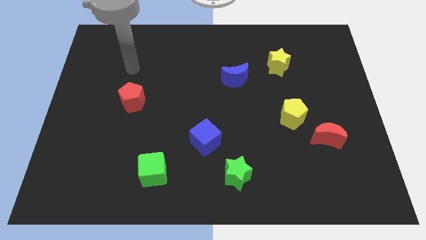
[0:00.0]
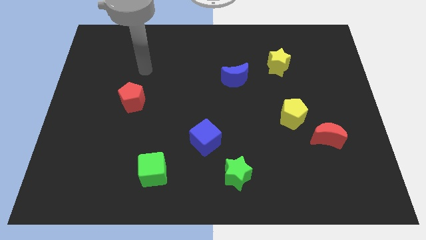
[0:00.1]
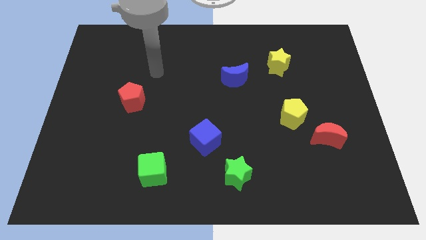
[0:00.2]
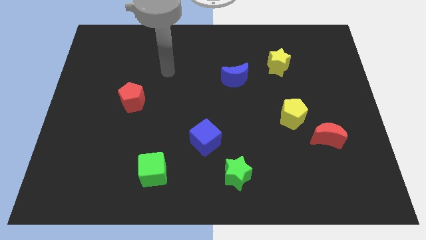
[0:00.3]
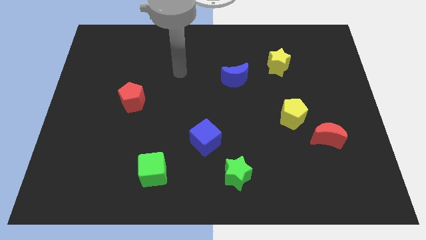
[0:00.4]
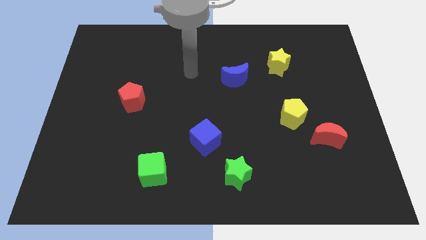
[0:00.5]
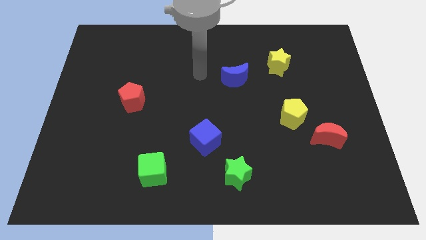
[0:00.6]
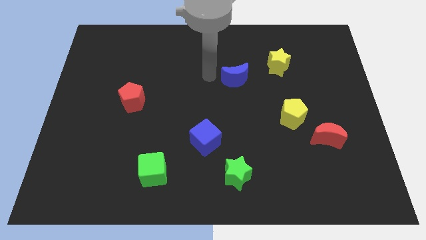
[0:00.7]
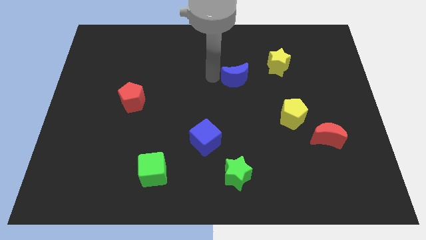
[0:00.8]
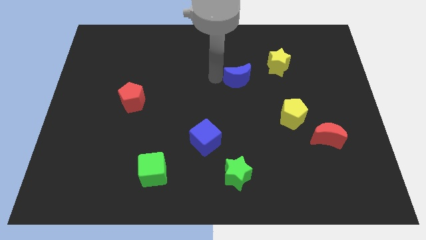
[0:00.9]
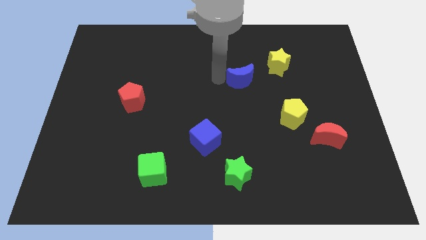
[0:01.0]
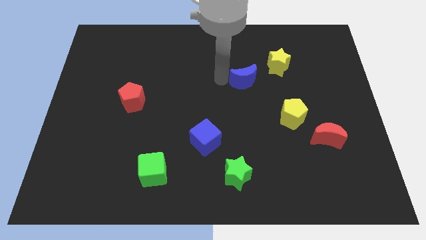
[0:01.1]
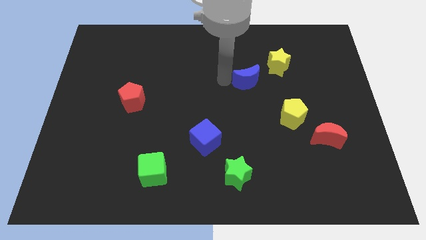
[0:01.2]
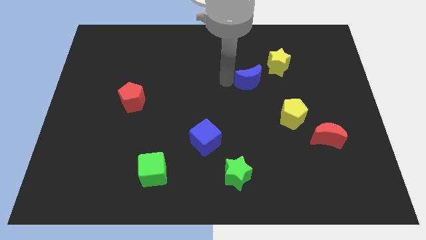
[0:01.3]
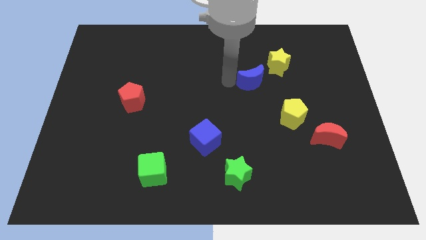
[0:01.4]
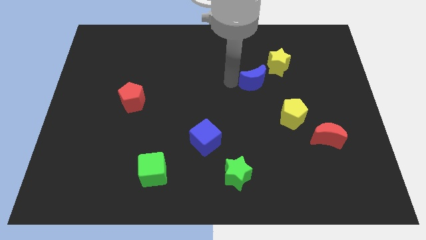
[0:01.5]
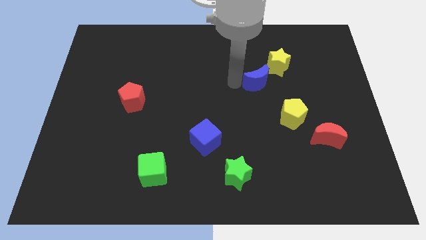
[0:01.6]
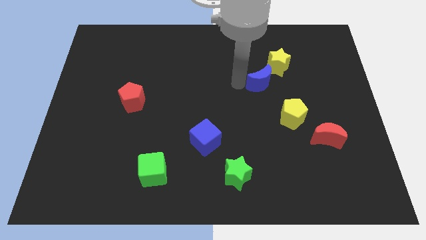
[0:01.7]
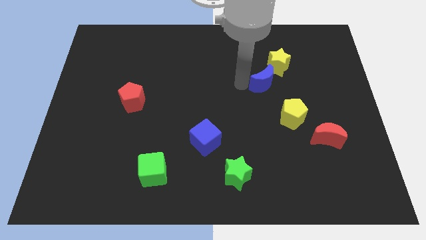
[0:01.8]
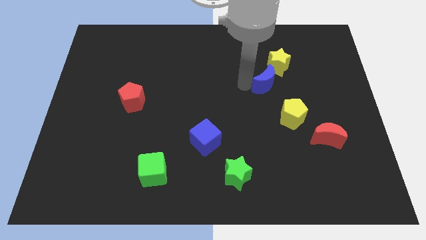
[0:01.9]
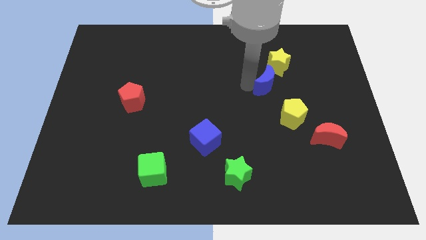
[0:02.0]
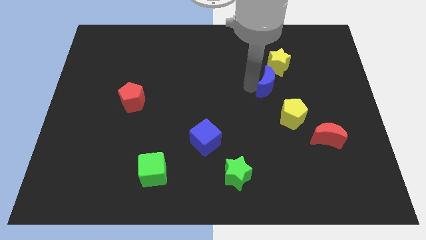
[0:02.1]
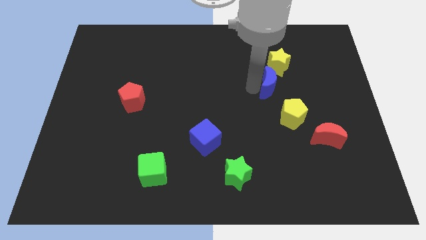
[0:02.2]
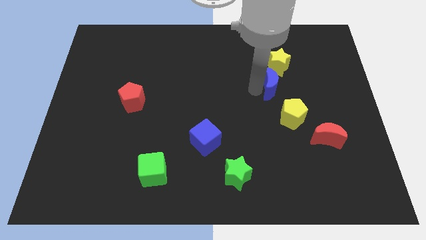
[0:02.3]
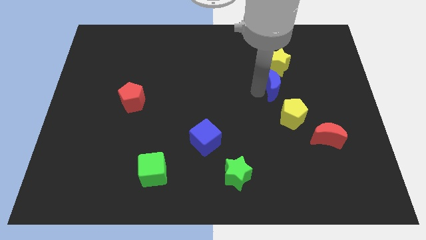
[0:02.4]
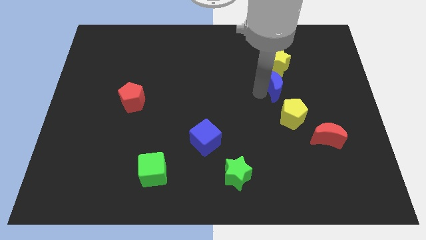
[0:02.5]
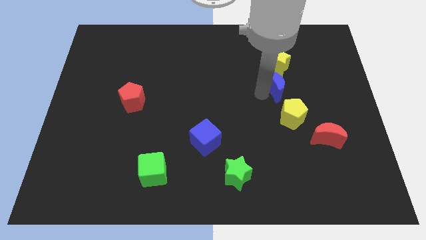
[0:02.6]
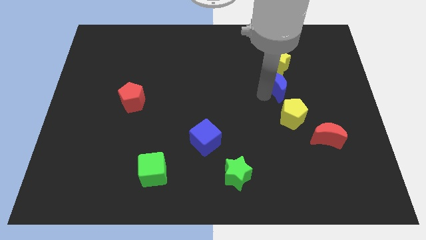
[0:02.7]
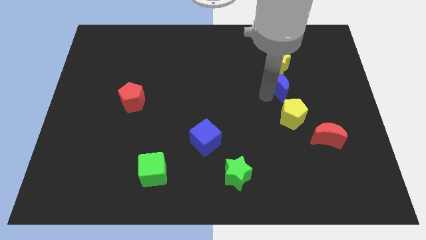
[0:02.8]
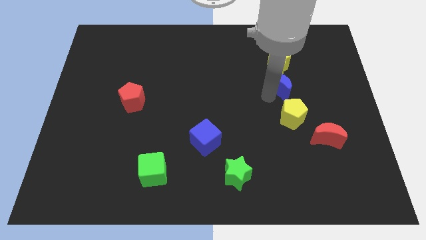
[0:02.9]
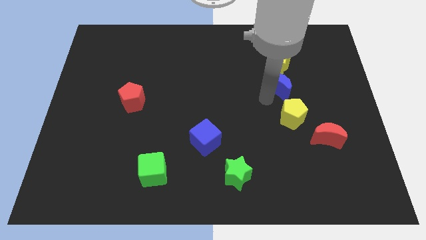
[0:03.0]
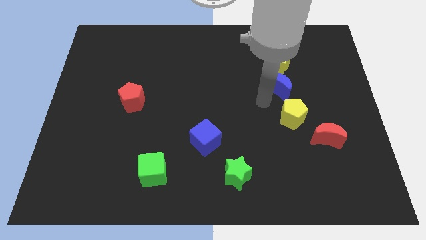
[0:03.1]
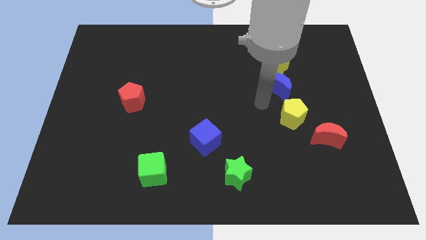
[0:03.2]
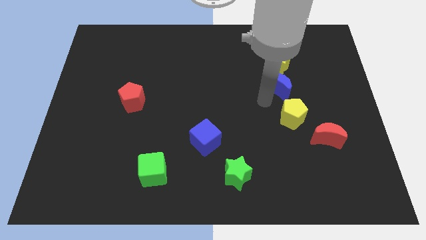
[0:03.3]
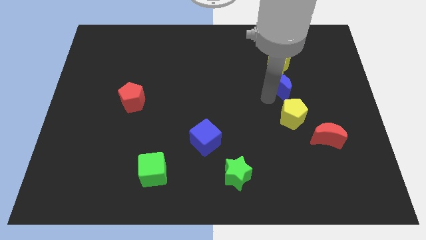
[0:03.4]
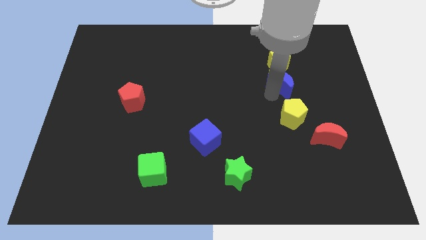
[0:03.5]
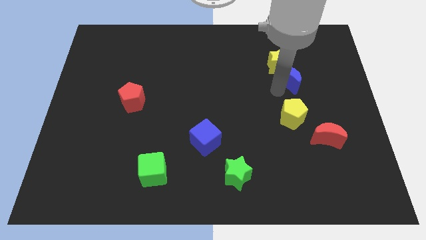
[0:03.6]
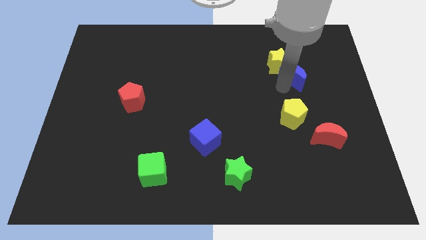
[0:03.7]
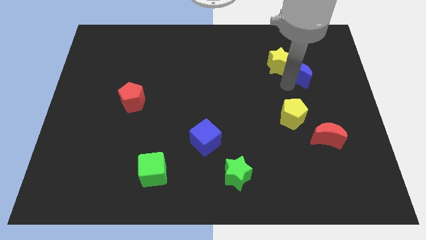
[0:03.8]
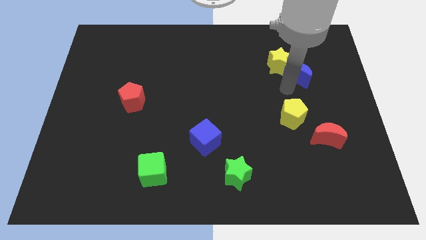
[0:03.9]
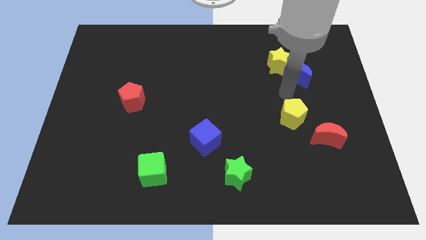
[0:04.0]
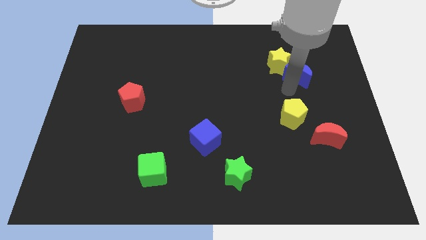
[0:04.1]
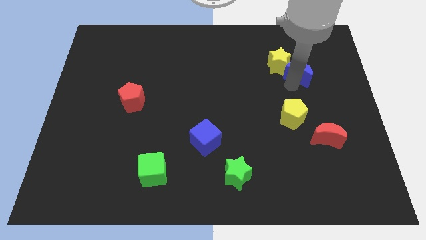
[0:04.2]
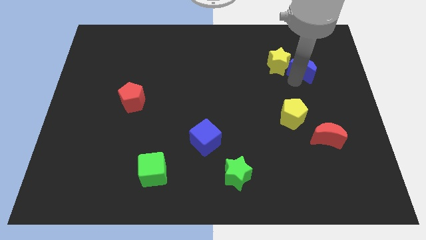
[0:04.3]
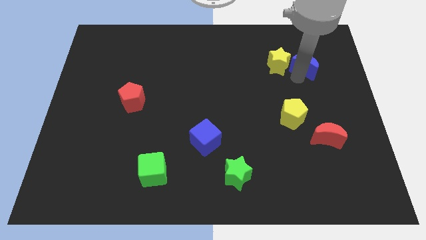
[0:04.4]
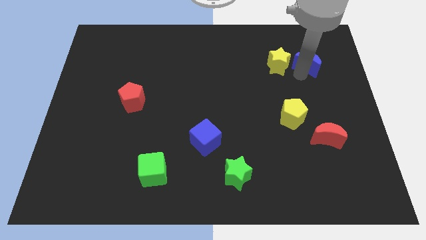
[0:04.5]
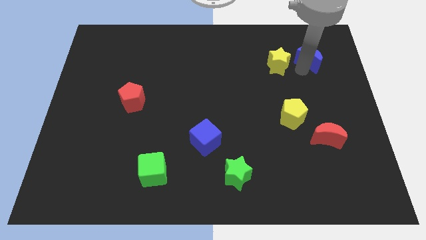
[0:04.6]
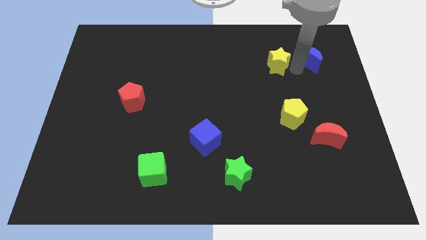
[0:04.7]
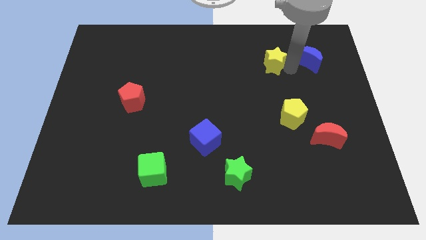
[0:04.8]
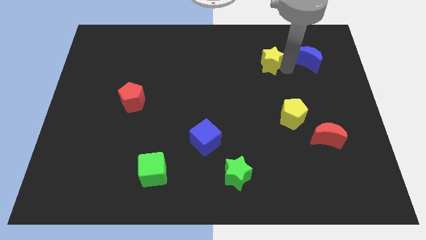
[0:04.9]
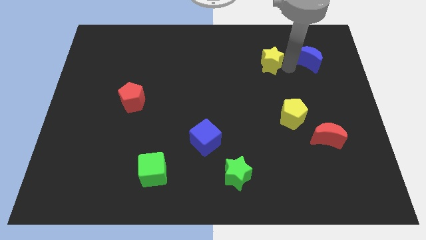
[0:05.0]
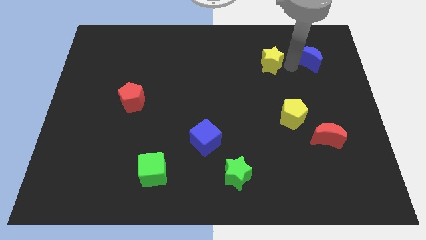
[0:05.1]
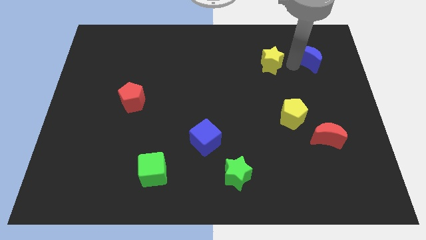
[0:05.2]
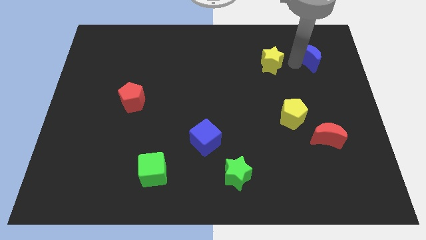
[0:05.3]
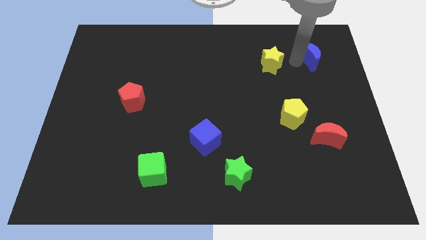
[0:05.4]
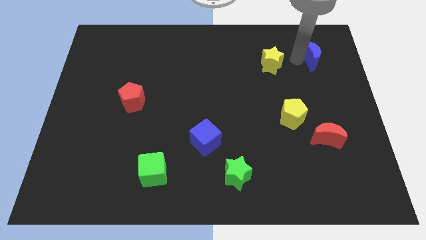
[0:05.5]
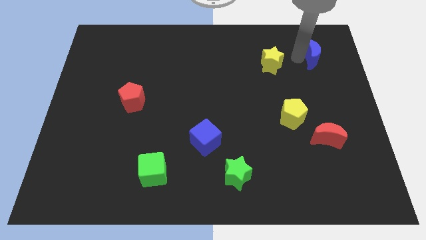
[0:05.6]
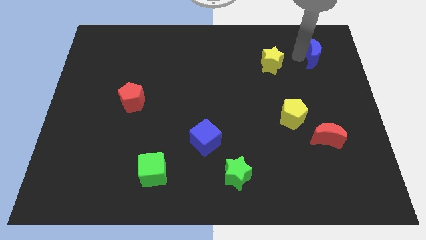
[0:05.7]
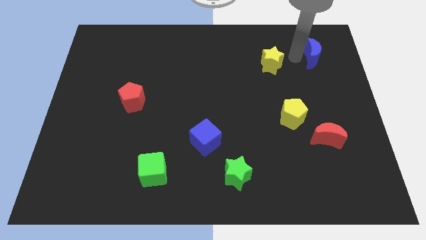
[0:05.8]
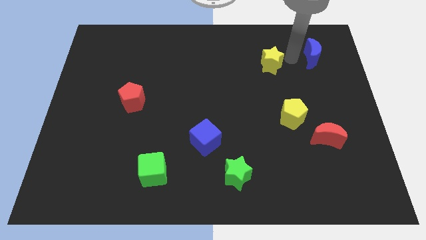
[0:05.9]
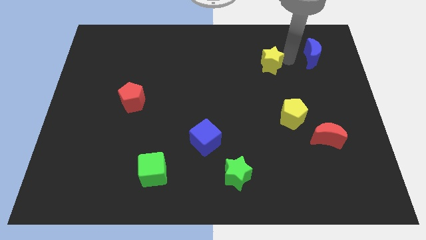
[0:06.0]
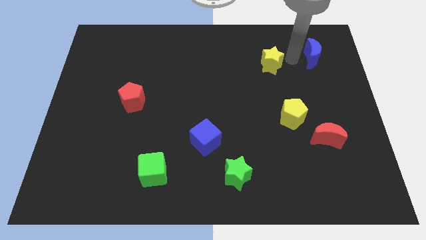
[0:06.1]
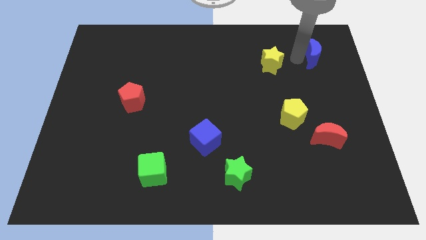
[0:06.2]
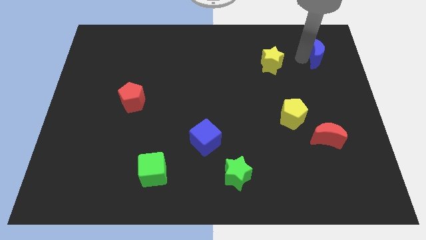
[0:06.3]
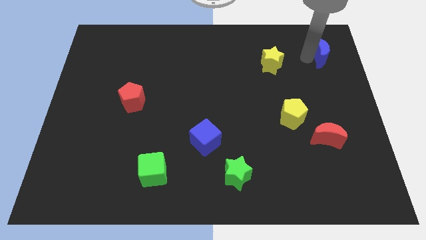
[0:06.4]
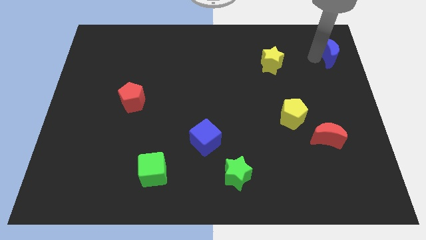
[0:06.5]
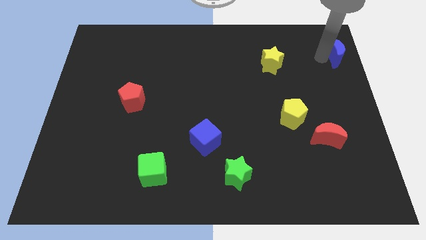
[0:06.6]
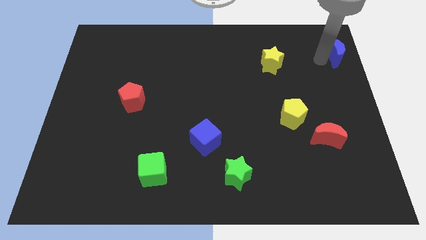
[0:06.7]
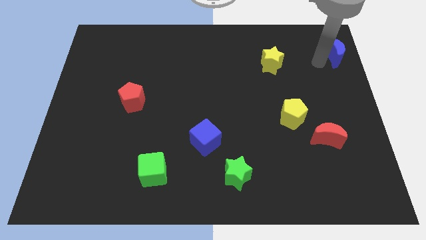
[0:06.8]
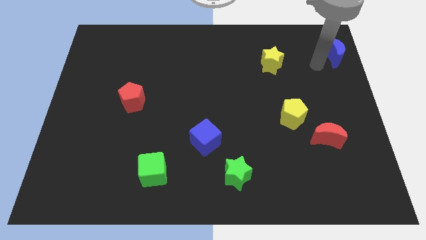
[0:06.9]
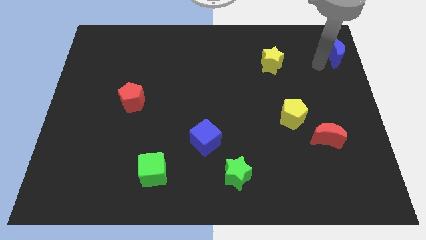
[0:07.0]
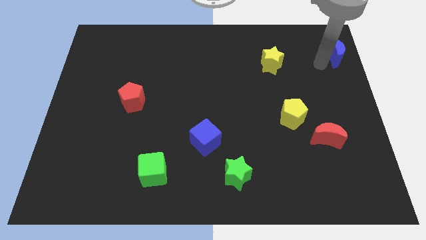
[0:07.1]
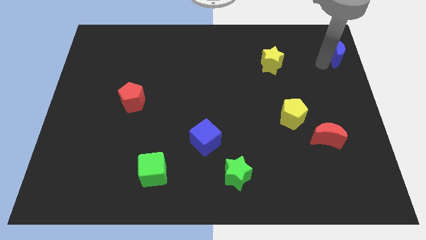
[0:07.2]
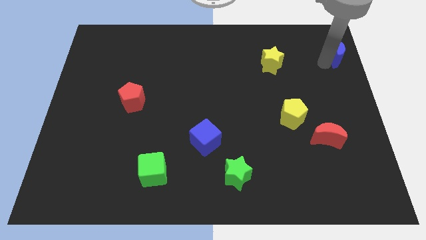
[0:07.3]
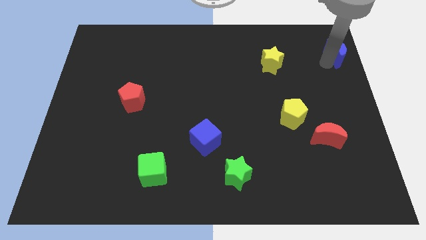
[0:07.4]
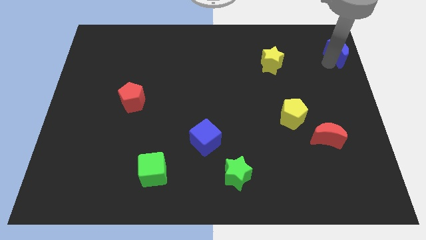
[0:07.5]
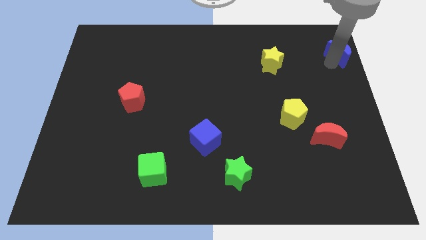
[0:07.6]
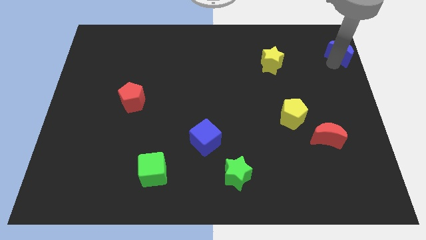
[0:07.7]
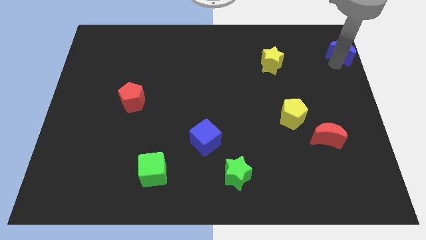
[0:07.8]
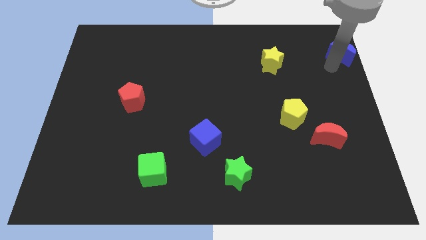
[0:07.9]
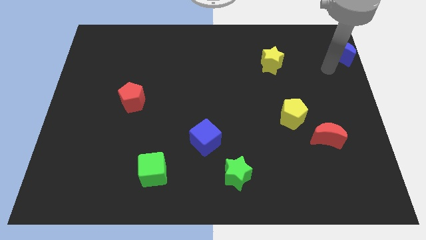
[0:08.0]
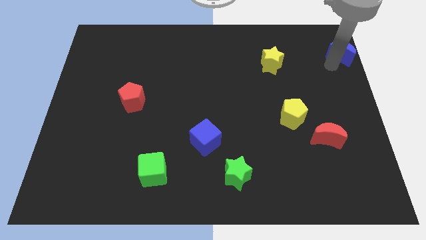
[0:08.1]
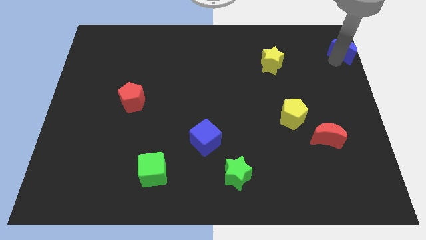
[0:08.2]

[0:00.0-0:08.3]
put the blue moon to the upper right corner
